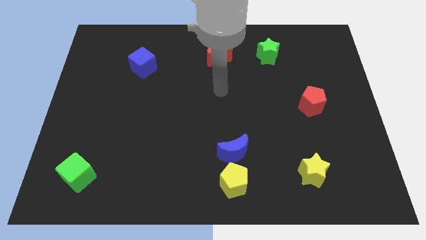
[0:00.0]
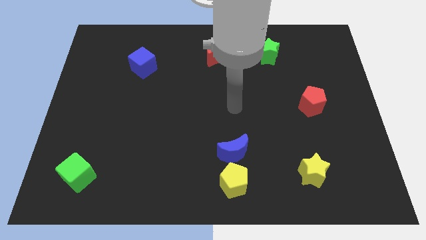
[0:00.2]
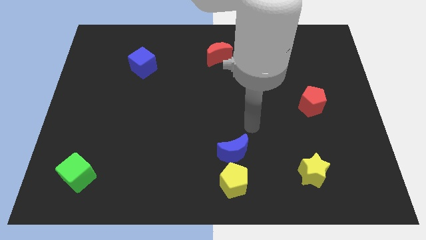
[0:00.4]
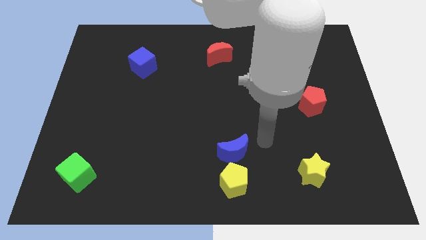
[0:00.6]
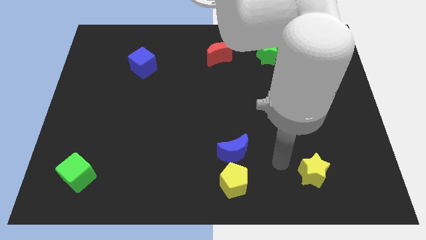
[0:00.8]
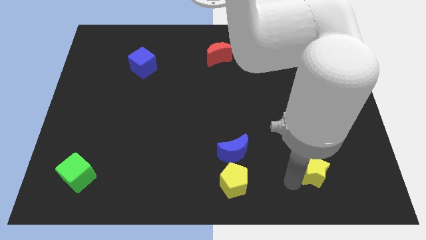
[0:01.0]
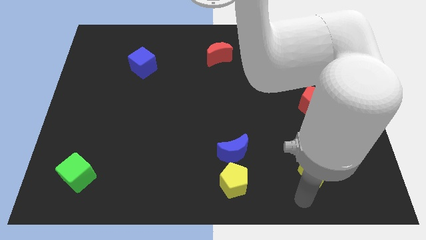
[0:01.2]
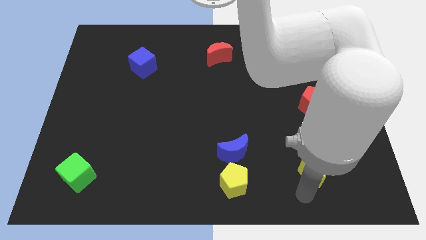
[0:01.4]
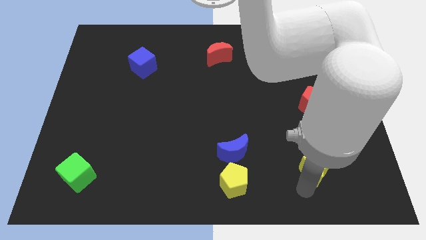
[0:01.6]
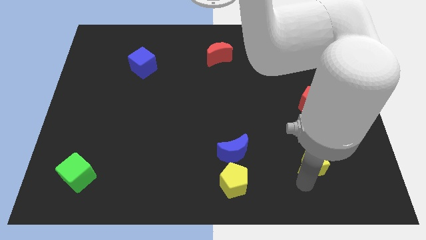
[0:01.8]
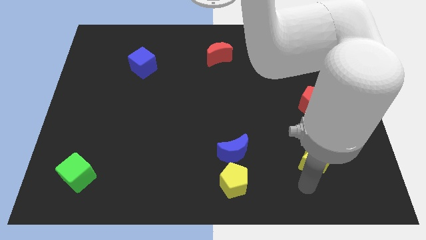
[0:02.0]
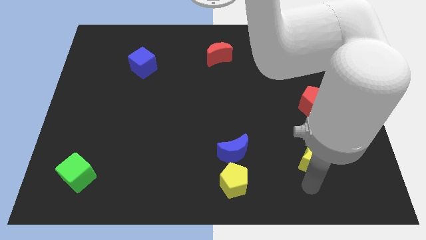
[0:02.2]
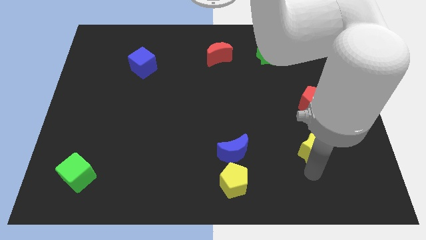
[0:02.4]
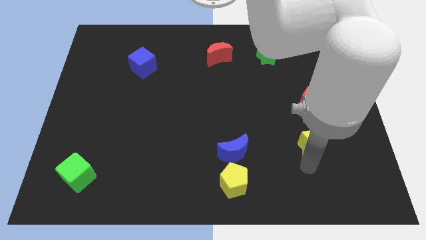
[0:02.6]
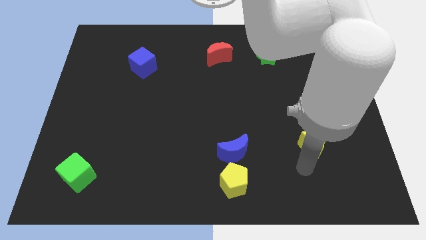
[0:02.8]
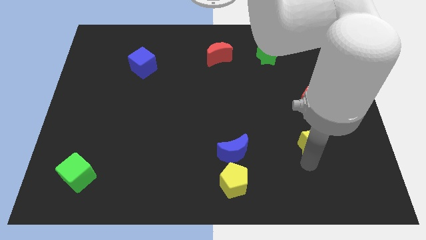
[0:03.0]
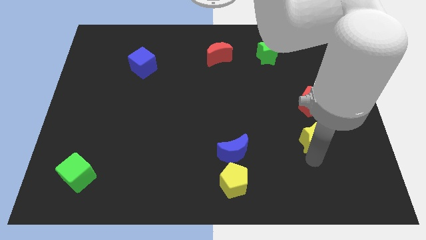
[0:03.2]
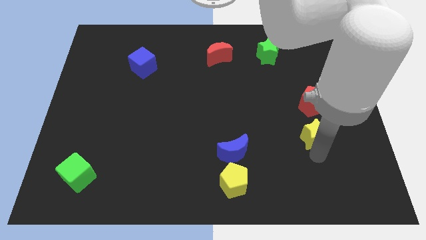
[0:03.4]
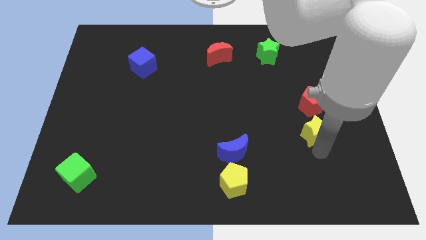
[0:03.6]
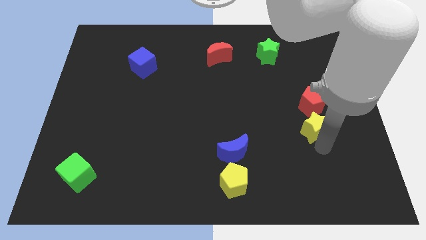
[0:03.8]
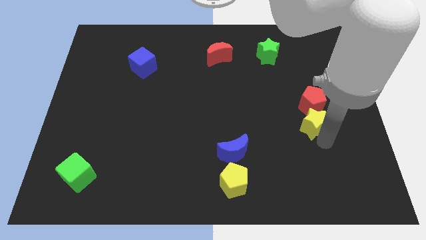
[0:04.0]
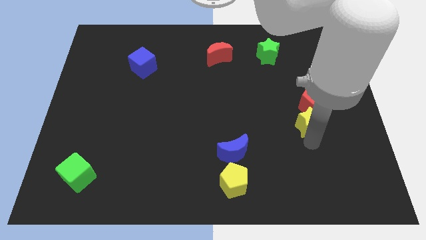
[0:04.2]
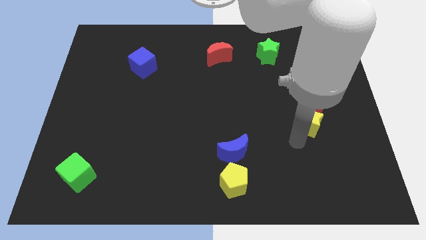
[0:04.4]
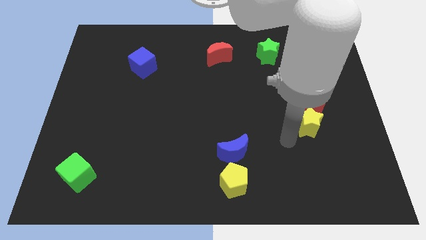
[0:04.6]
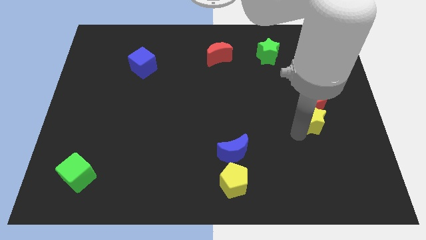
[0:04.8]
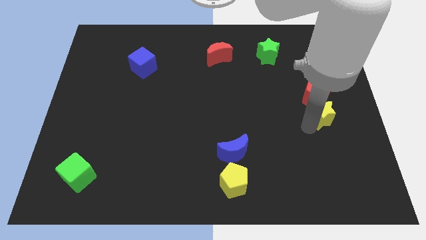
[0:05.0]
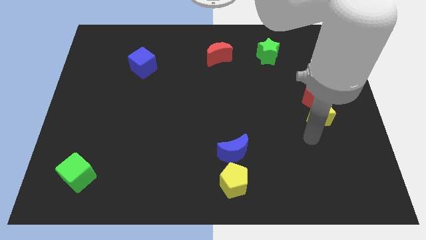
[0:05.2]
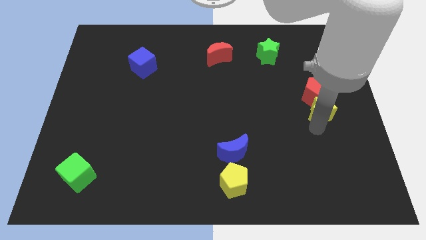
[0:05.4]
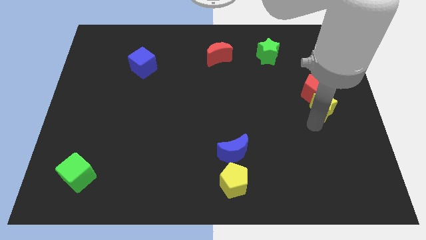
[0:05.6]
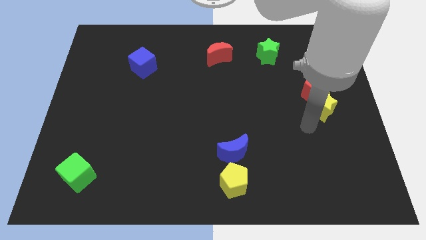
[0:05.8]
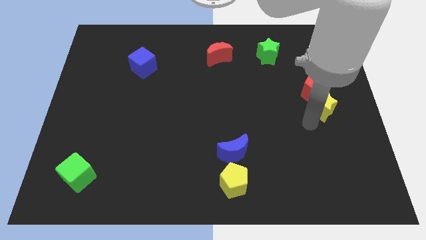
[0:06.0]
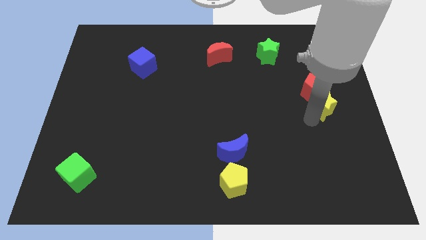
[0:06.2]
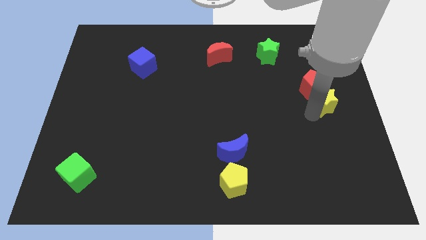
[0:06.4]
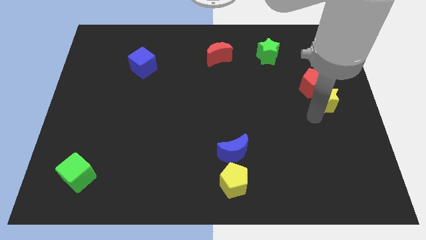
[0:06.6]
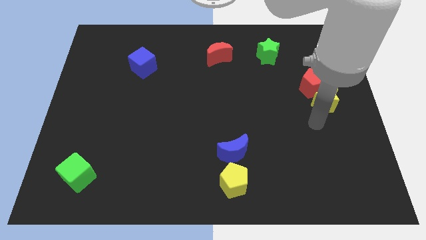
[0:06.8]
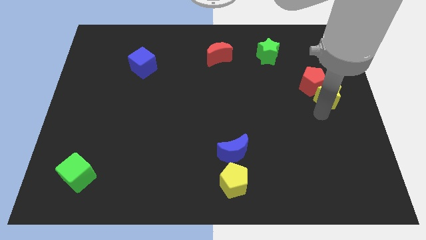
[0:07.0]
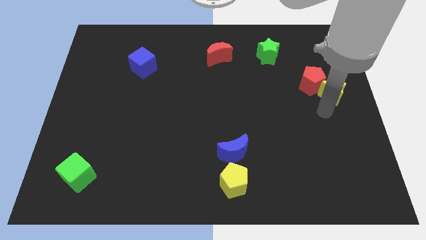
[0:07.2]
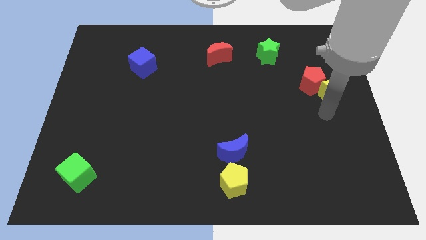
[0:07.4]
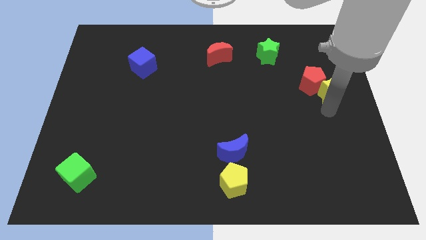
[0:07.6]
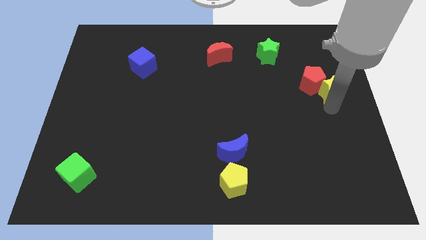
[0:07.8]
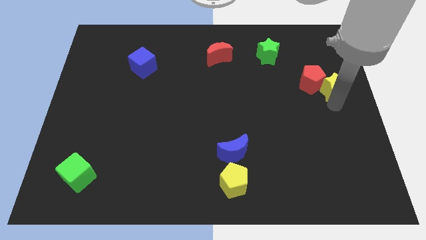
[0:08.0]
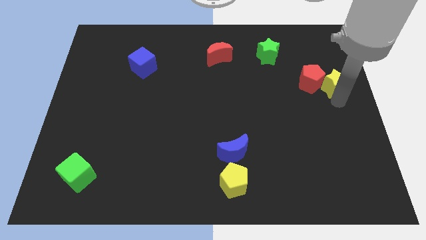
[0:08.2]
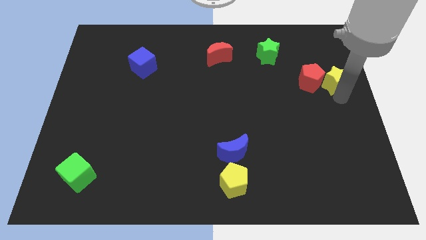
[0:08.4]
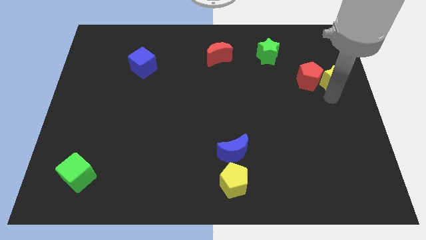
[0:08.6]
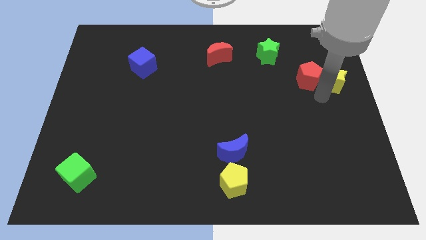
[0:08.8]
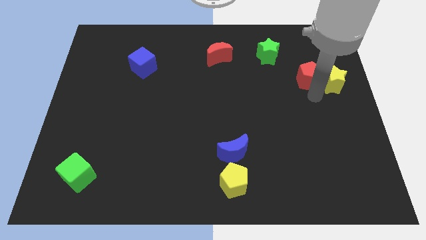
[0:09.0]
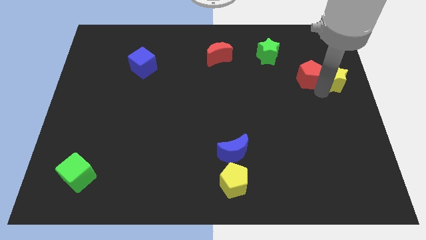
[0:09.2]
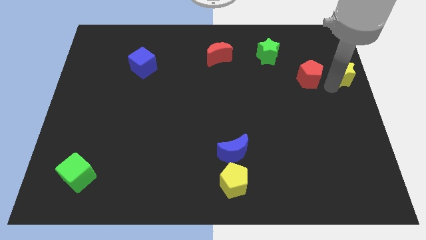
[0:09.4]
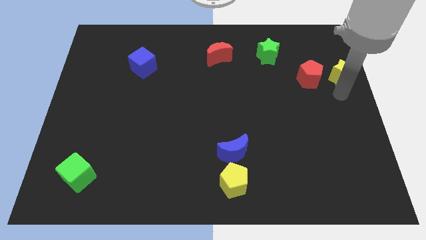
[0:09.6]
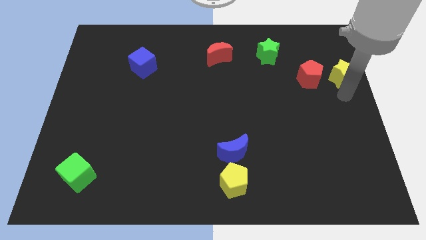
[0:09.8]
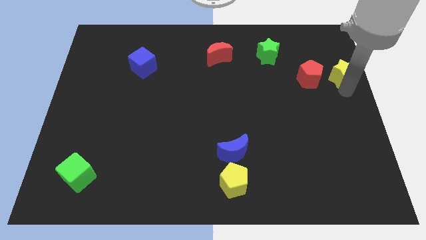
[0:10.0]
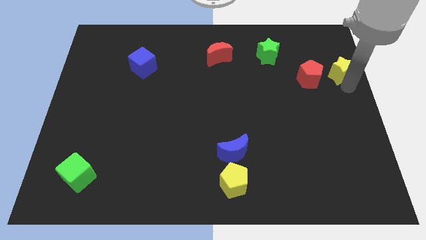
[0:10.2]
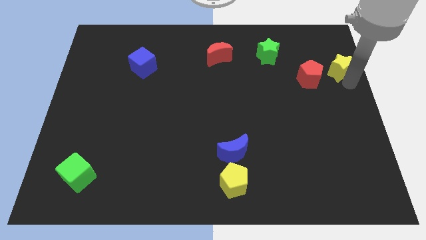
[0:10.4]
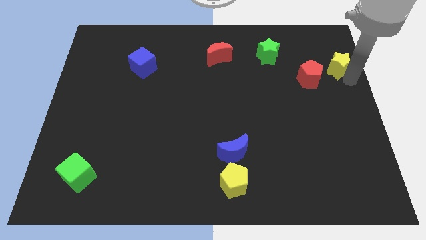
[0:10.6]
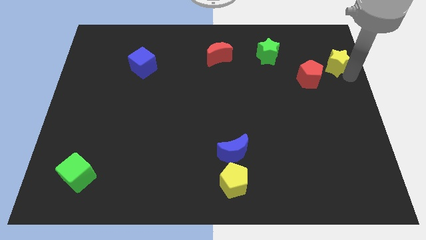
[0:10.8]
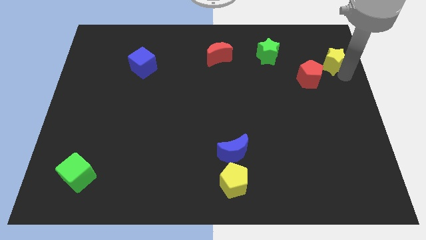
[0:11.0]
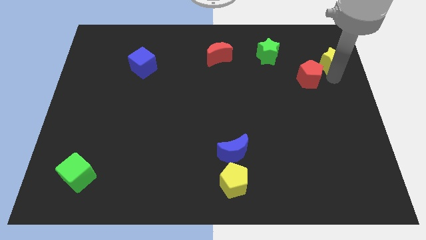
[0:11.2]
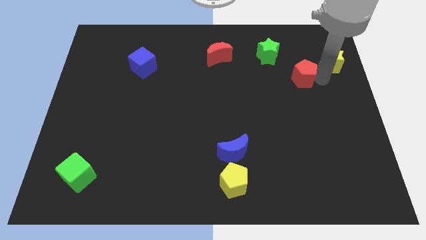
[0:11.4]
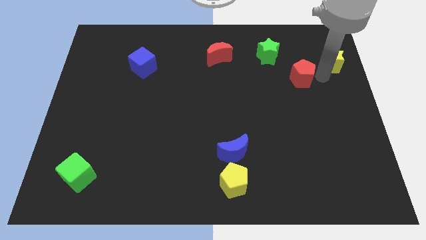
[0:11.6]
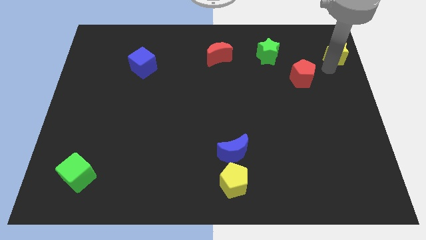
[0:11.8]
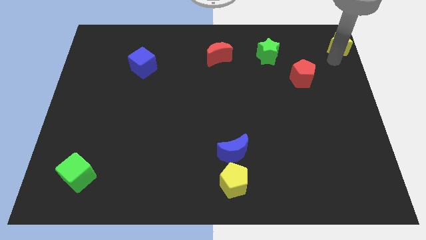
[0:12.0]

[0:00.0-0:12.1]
move the yellow star to the top right of the board

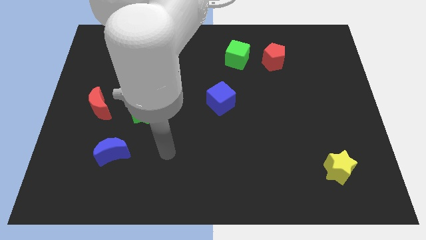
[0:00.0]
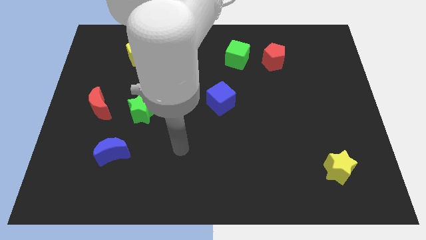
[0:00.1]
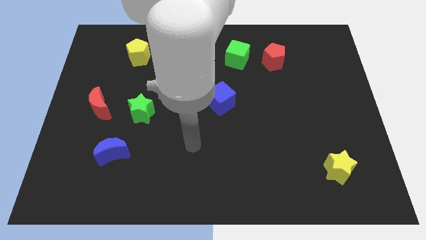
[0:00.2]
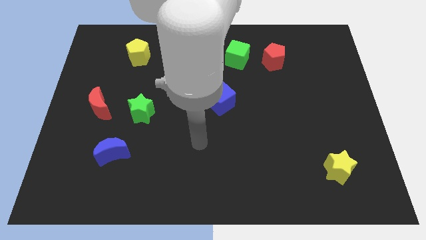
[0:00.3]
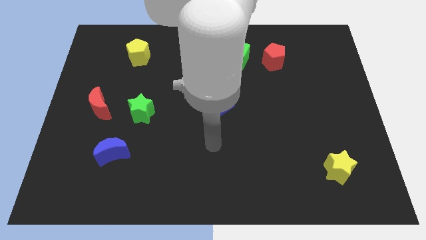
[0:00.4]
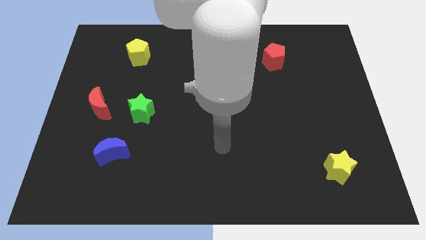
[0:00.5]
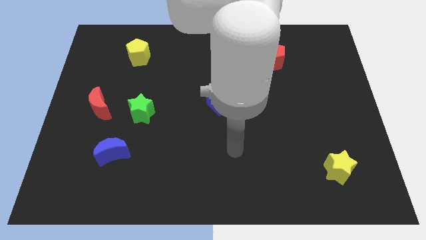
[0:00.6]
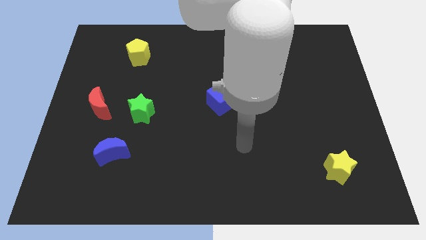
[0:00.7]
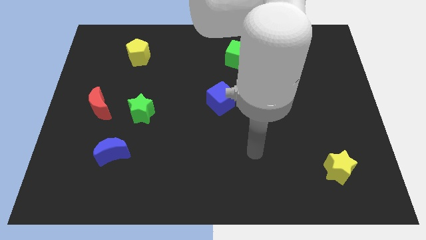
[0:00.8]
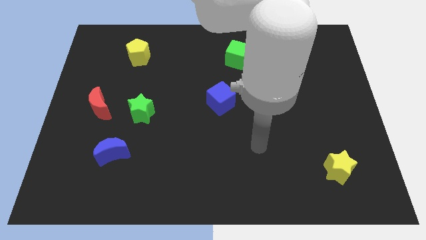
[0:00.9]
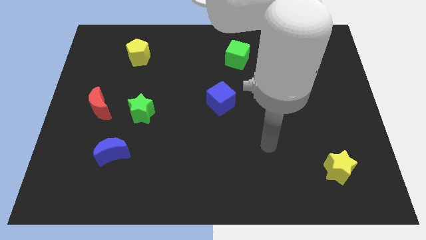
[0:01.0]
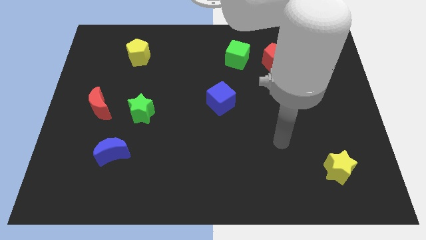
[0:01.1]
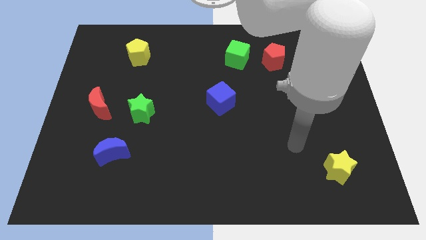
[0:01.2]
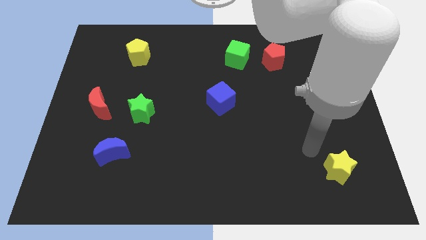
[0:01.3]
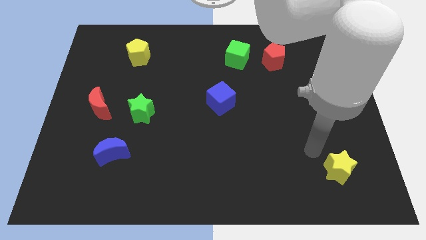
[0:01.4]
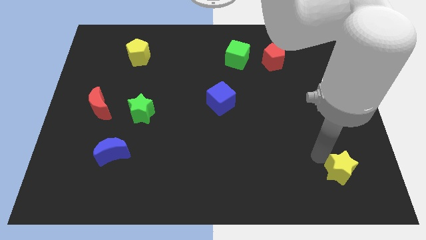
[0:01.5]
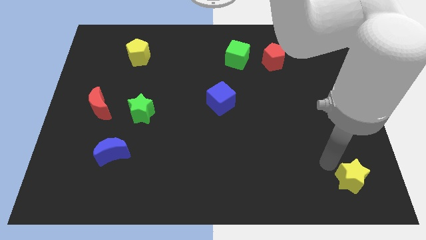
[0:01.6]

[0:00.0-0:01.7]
put the yellow star to the lower right corner
